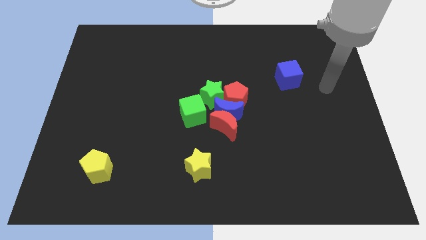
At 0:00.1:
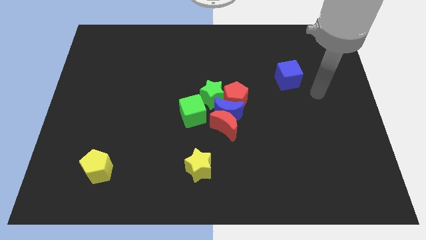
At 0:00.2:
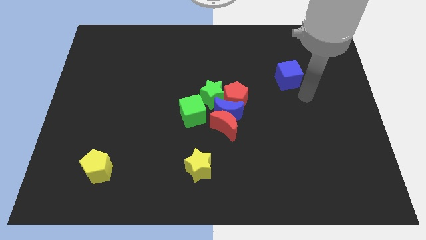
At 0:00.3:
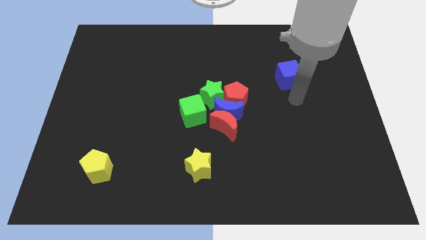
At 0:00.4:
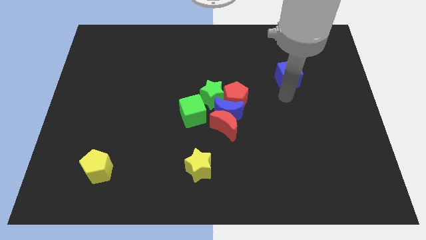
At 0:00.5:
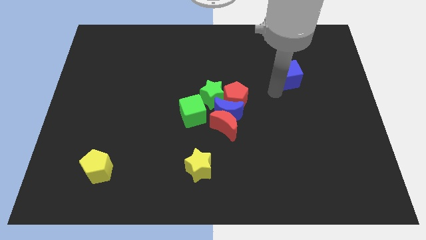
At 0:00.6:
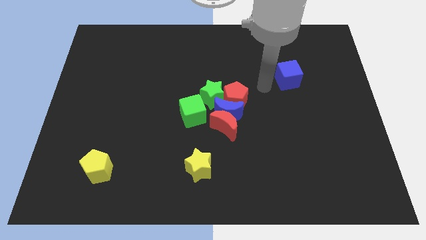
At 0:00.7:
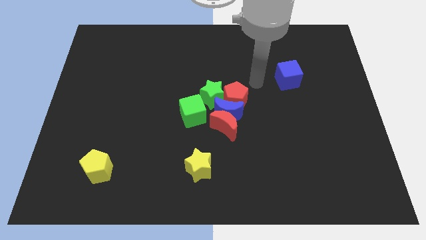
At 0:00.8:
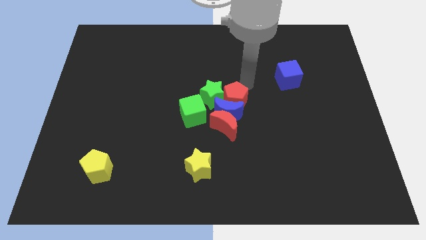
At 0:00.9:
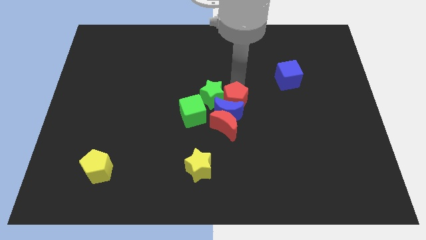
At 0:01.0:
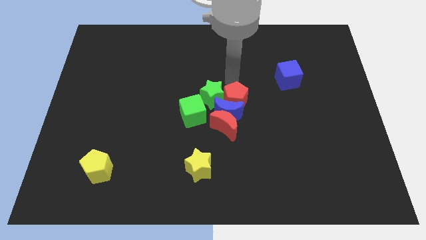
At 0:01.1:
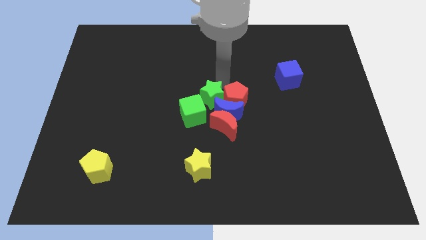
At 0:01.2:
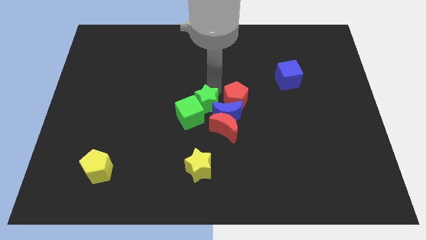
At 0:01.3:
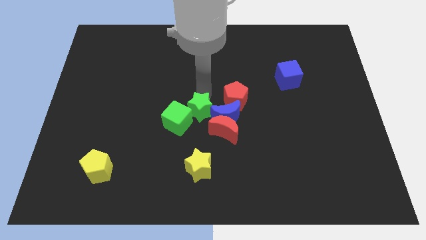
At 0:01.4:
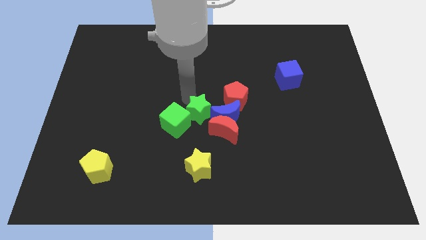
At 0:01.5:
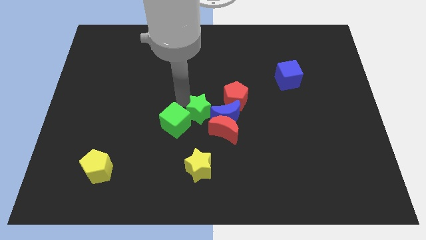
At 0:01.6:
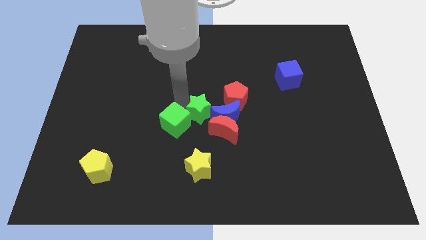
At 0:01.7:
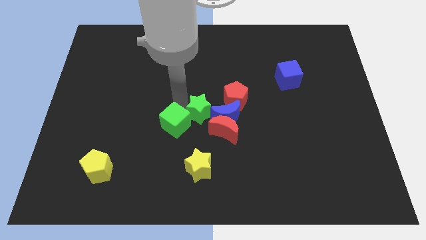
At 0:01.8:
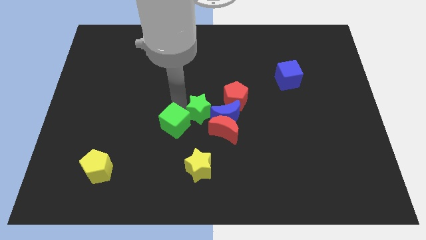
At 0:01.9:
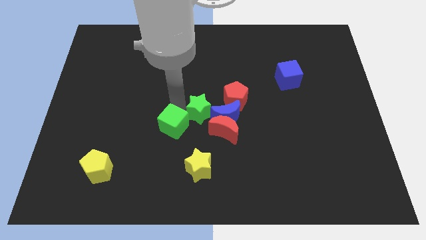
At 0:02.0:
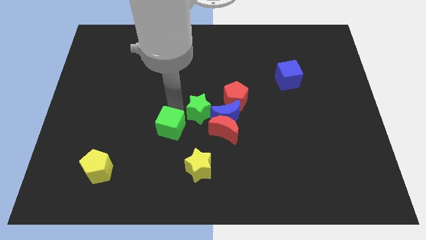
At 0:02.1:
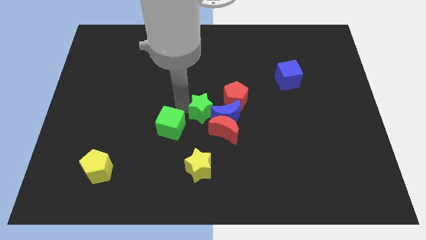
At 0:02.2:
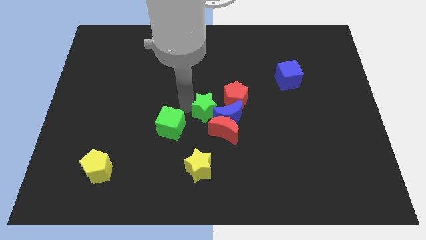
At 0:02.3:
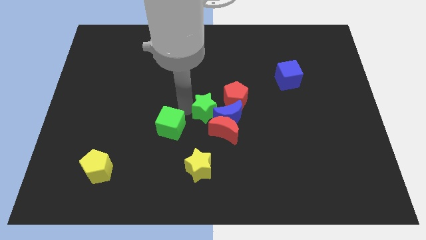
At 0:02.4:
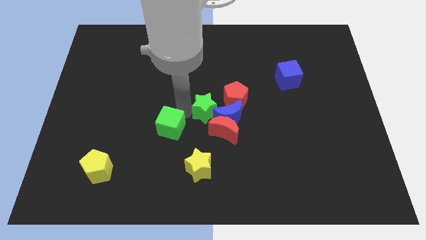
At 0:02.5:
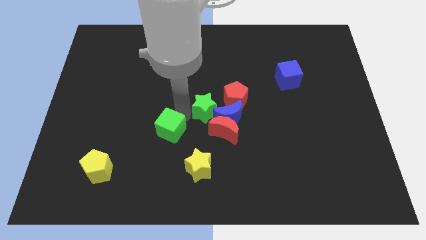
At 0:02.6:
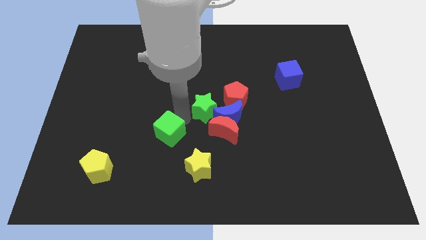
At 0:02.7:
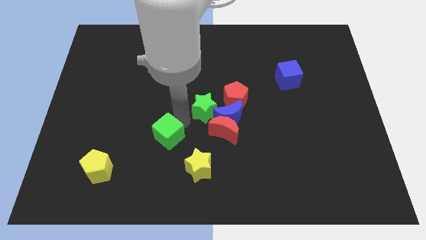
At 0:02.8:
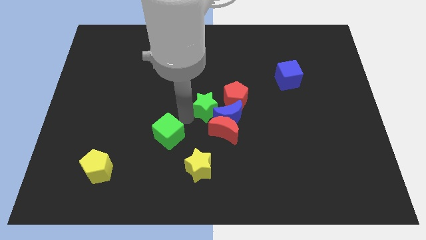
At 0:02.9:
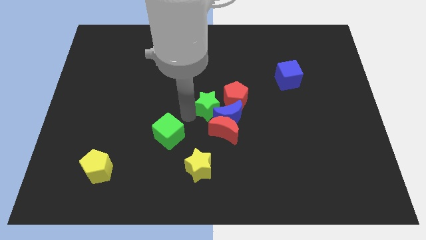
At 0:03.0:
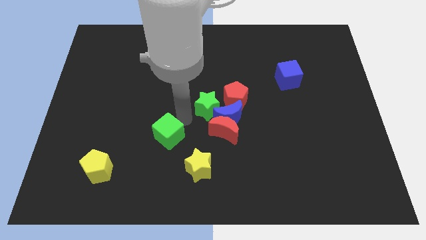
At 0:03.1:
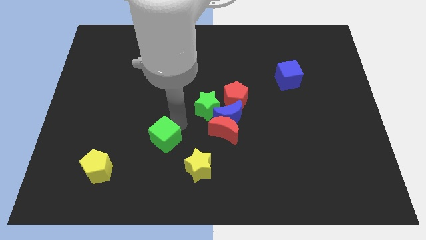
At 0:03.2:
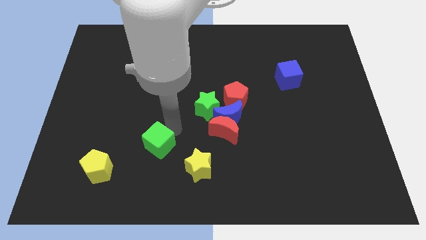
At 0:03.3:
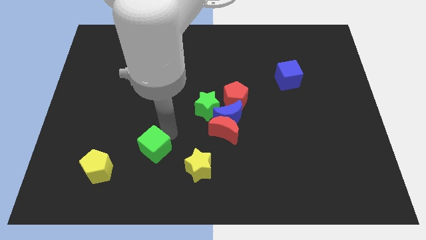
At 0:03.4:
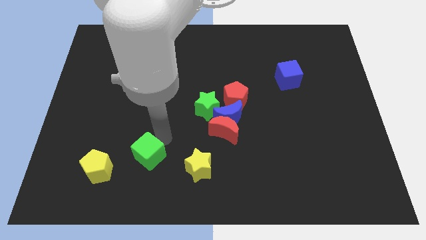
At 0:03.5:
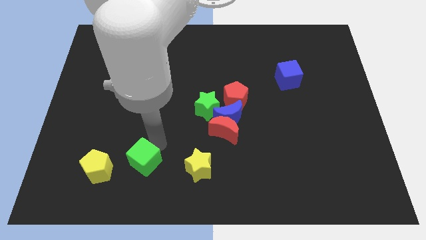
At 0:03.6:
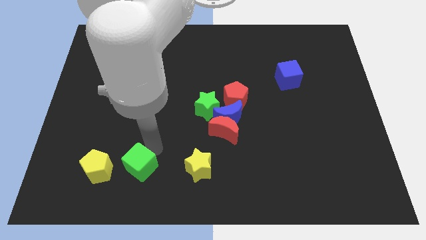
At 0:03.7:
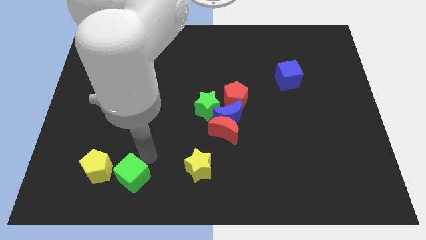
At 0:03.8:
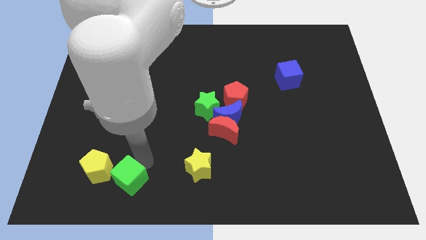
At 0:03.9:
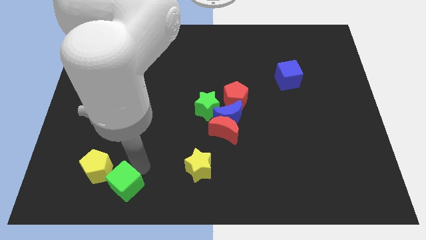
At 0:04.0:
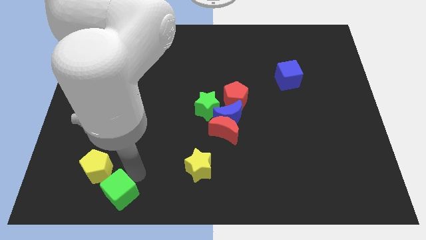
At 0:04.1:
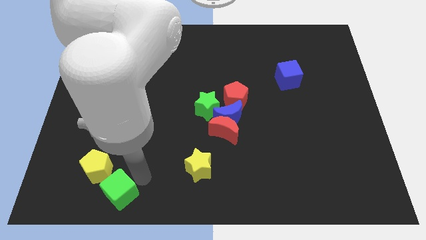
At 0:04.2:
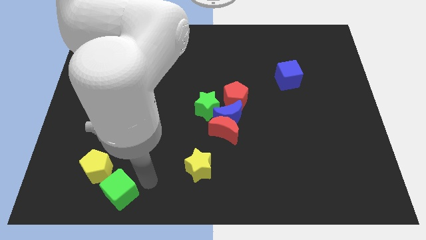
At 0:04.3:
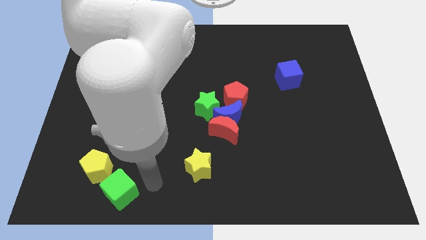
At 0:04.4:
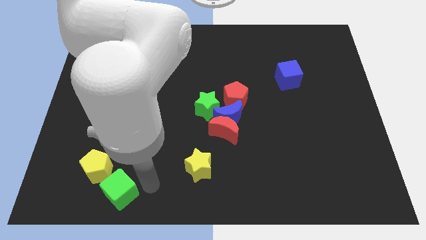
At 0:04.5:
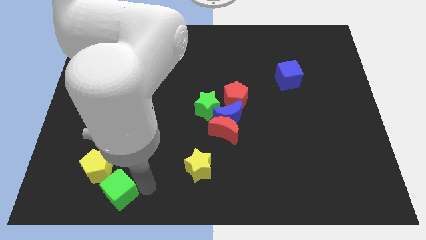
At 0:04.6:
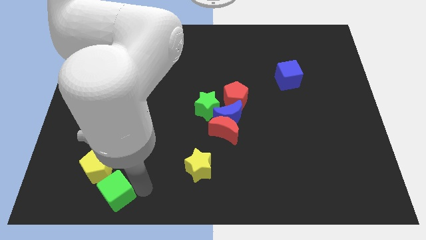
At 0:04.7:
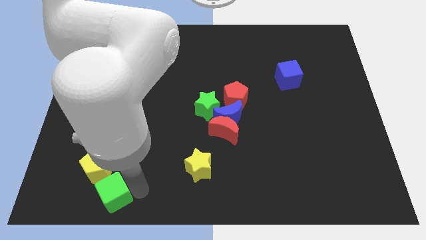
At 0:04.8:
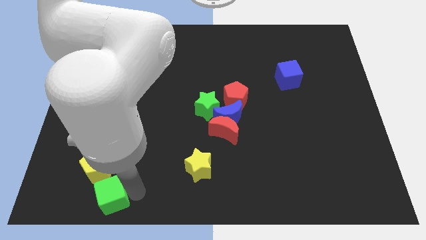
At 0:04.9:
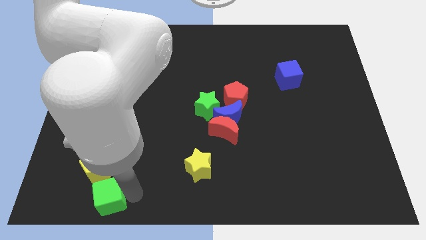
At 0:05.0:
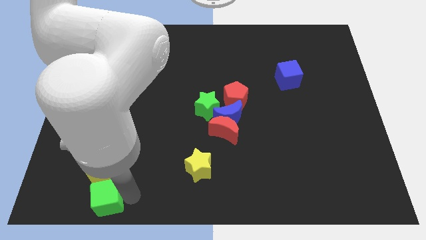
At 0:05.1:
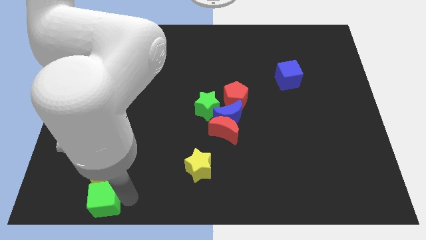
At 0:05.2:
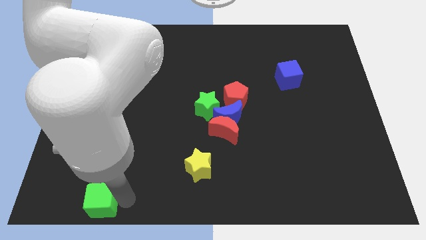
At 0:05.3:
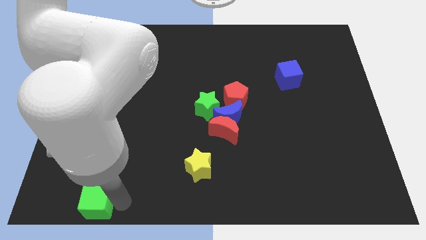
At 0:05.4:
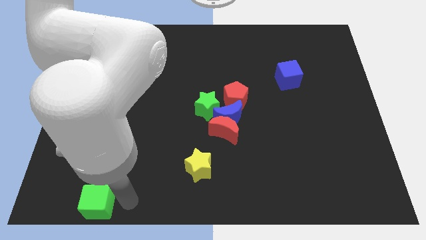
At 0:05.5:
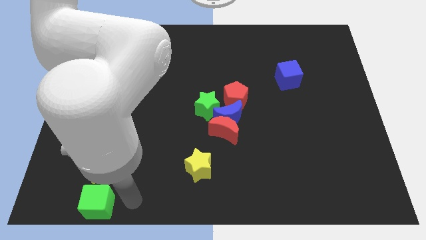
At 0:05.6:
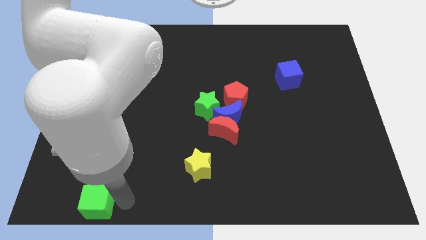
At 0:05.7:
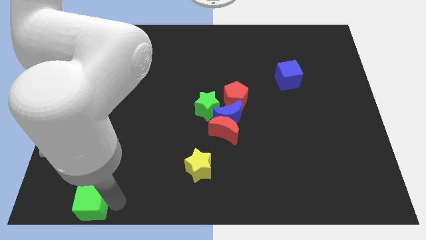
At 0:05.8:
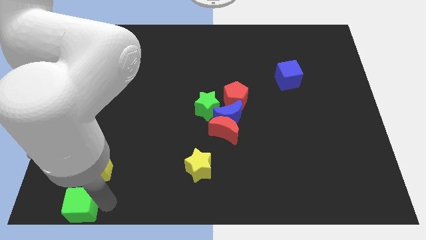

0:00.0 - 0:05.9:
move the green cube to the bottom left of the board

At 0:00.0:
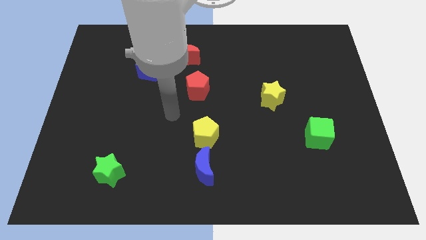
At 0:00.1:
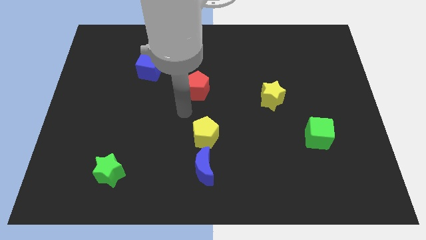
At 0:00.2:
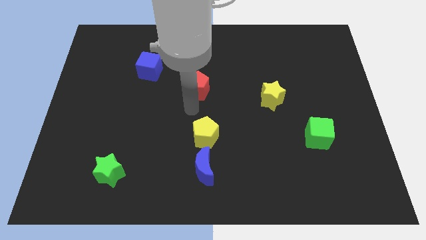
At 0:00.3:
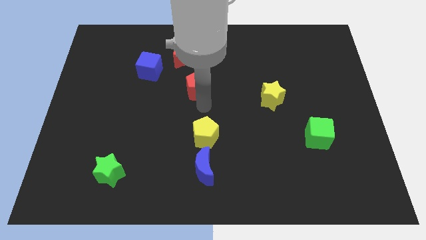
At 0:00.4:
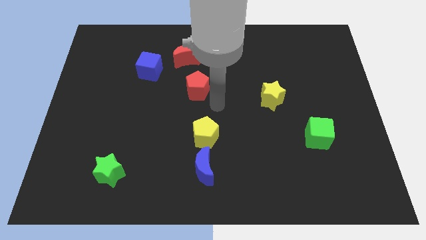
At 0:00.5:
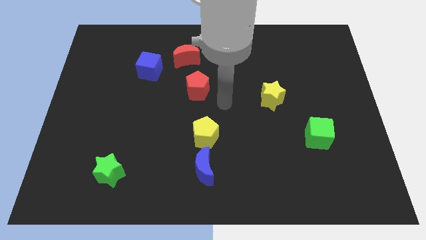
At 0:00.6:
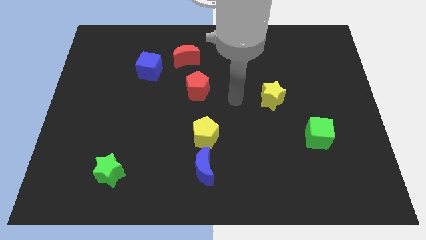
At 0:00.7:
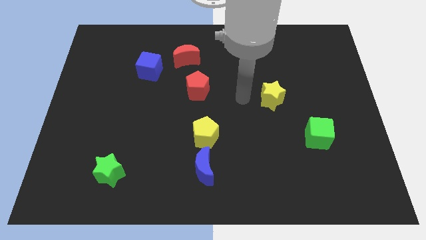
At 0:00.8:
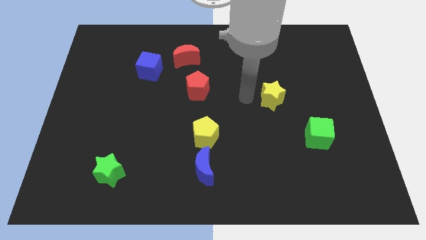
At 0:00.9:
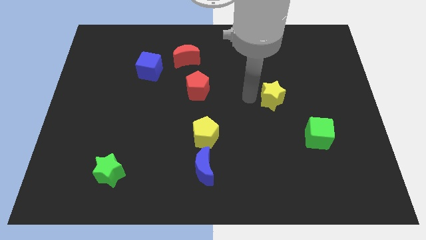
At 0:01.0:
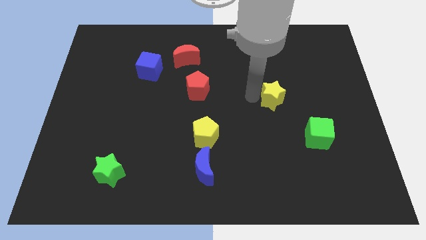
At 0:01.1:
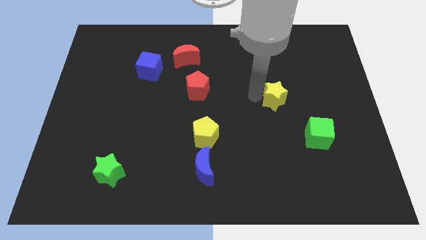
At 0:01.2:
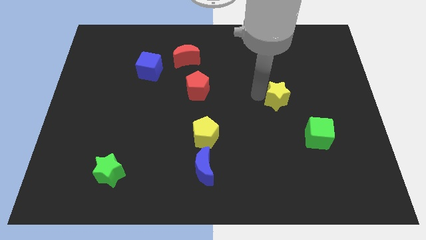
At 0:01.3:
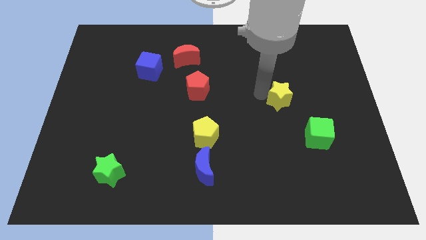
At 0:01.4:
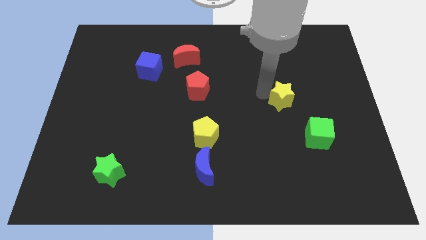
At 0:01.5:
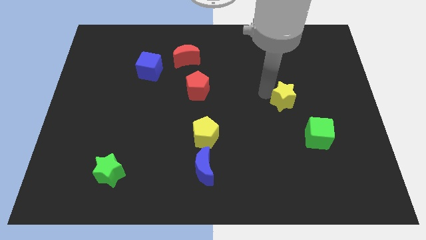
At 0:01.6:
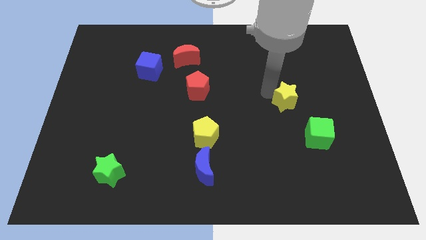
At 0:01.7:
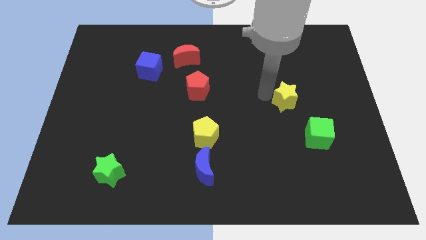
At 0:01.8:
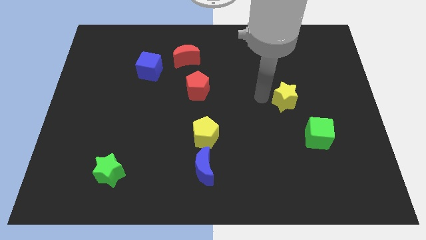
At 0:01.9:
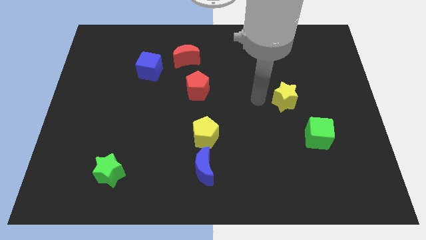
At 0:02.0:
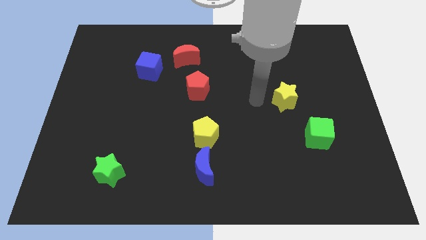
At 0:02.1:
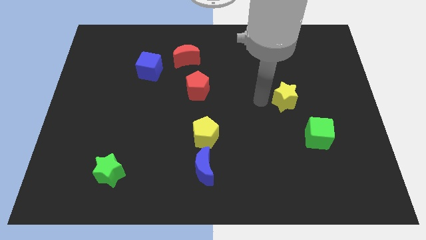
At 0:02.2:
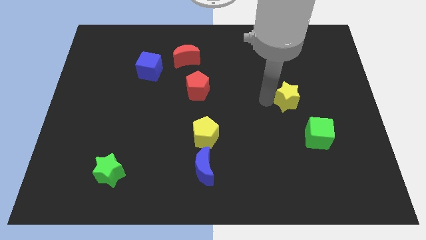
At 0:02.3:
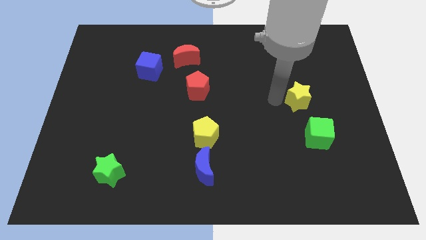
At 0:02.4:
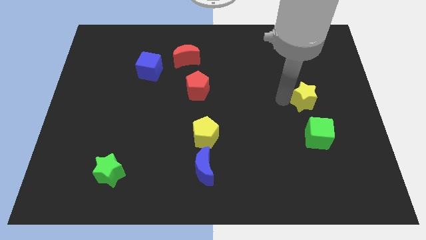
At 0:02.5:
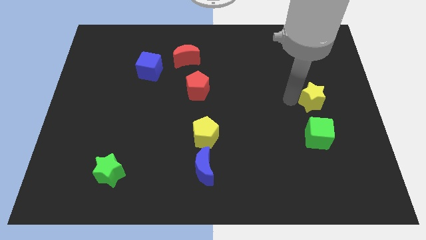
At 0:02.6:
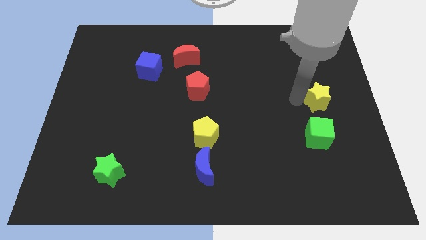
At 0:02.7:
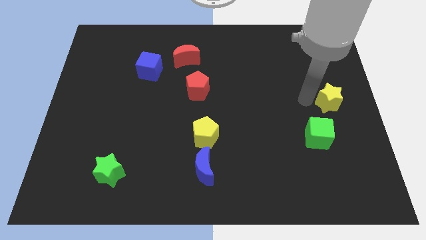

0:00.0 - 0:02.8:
push the yellow star to the right side of the board
